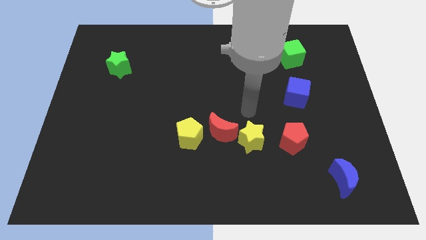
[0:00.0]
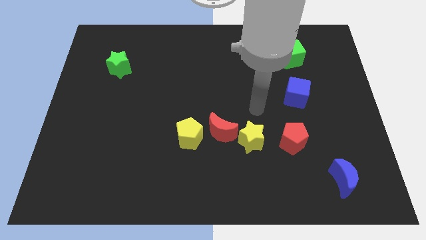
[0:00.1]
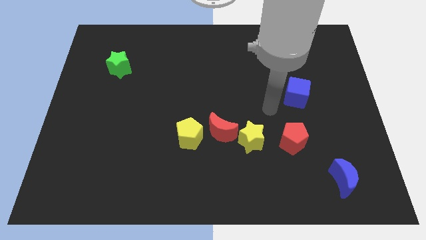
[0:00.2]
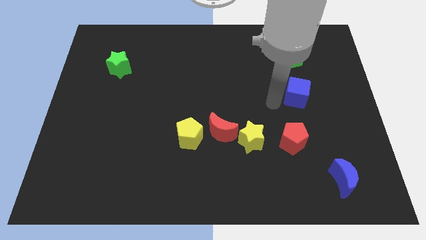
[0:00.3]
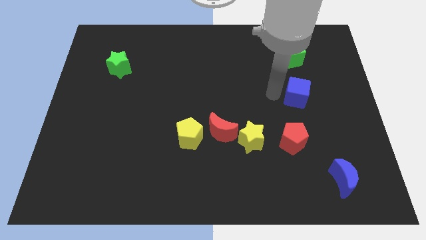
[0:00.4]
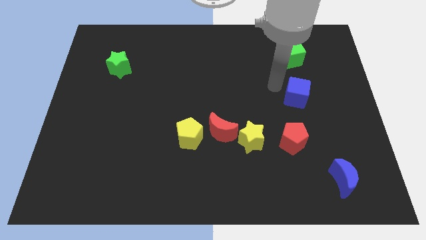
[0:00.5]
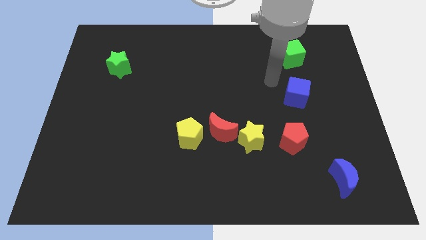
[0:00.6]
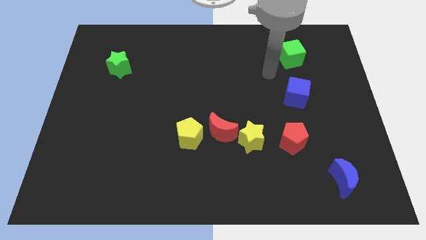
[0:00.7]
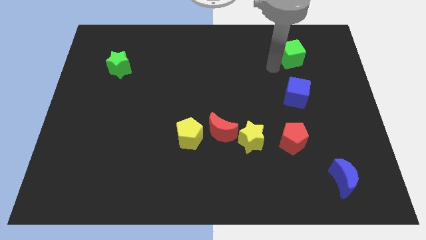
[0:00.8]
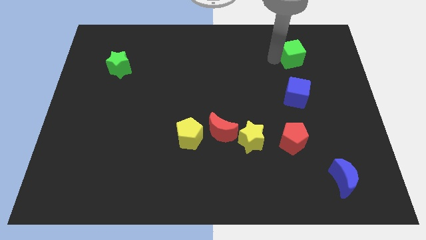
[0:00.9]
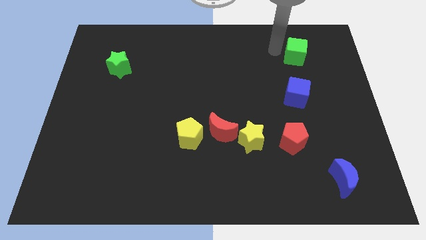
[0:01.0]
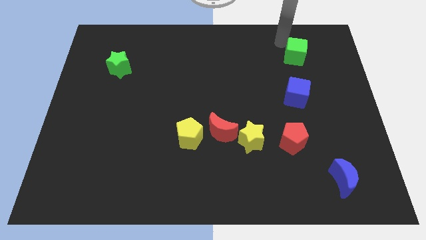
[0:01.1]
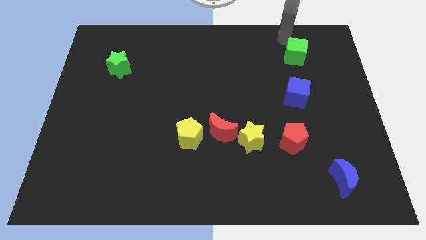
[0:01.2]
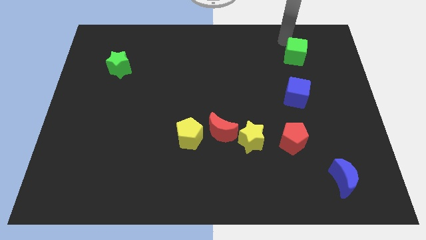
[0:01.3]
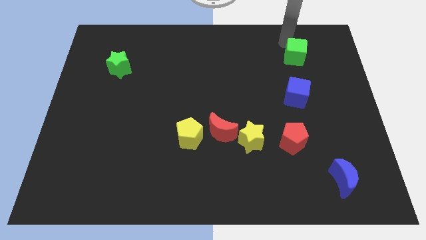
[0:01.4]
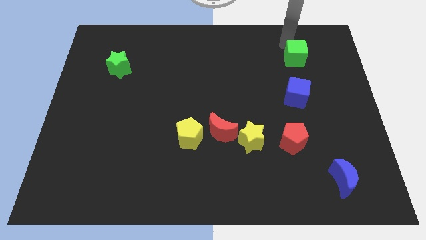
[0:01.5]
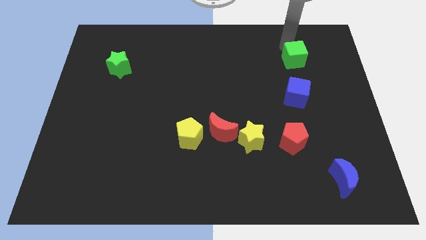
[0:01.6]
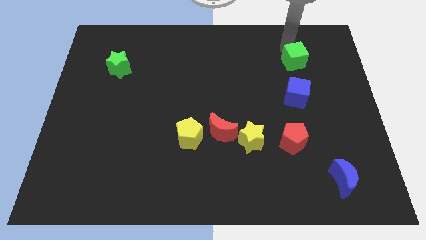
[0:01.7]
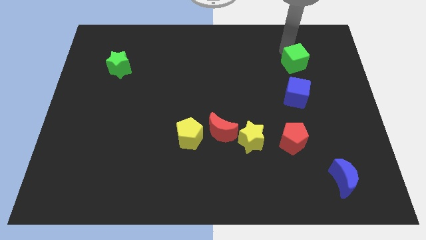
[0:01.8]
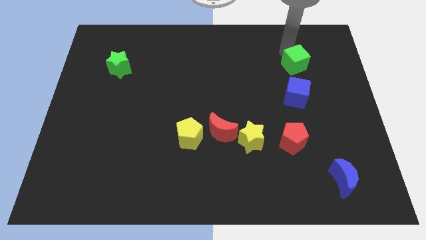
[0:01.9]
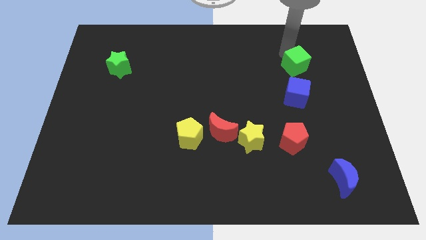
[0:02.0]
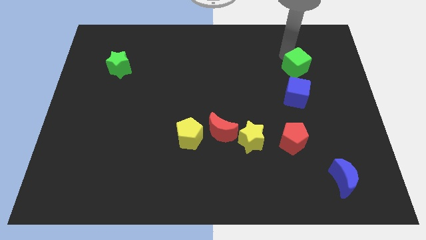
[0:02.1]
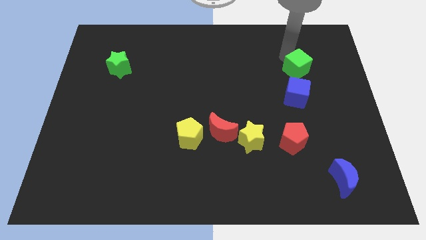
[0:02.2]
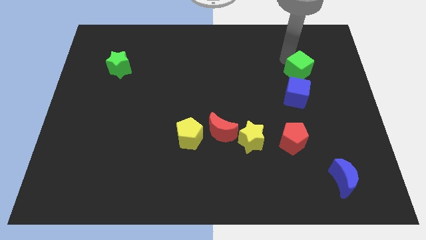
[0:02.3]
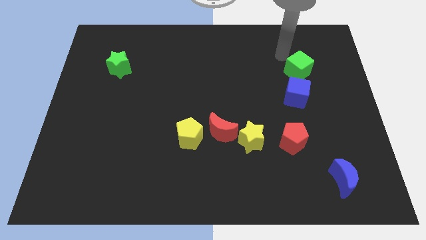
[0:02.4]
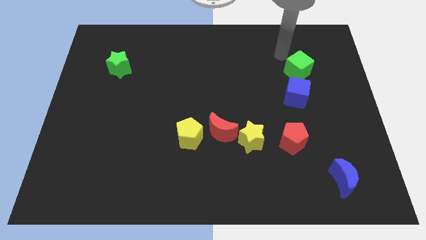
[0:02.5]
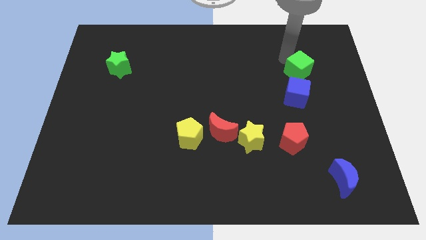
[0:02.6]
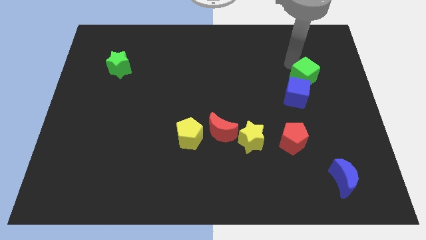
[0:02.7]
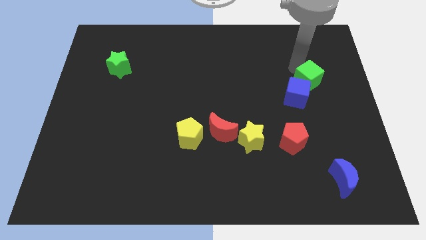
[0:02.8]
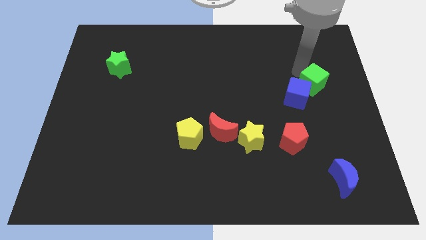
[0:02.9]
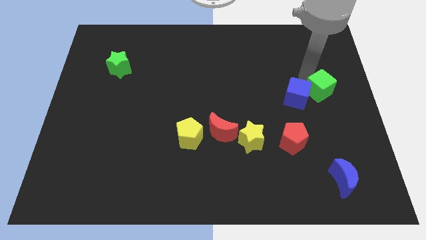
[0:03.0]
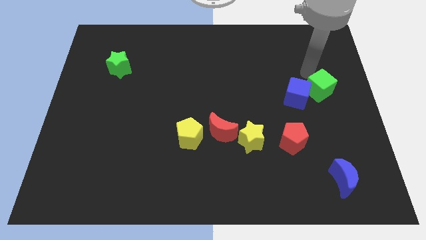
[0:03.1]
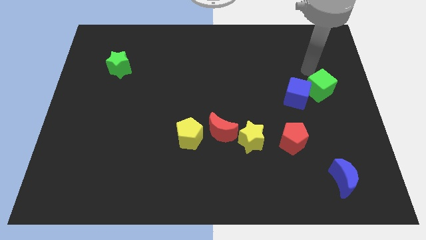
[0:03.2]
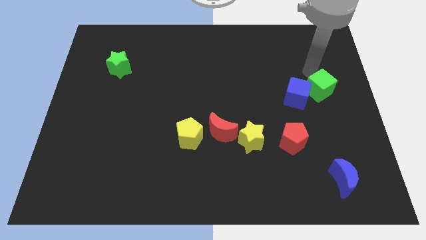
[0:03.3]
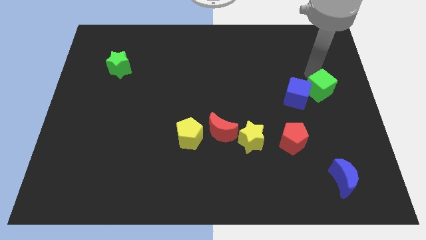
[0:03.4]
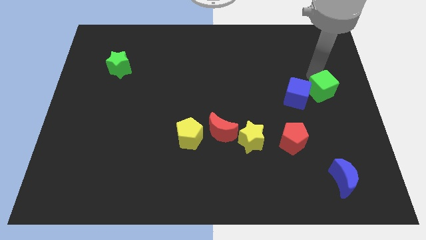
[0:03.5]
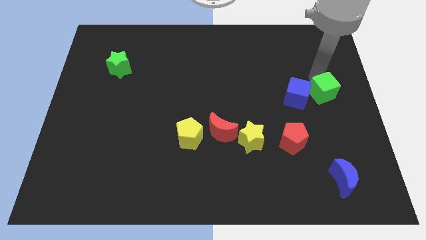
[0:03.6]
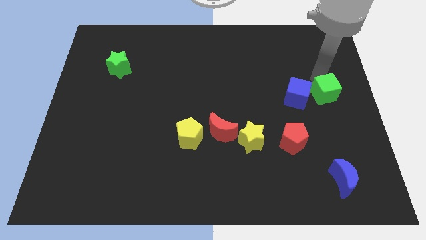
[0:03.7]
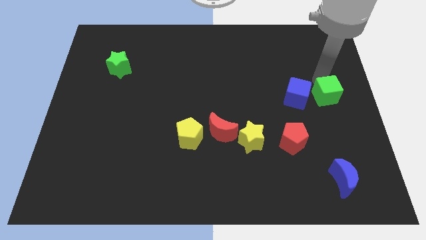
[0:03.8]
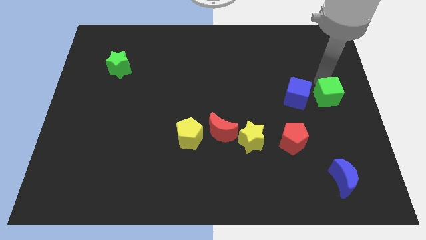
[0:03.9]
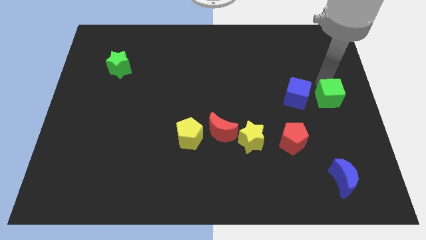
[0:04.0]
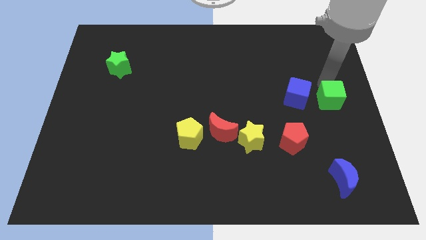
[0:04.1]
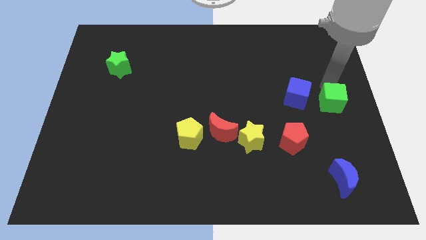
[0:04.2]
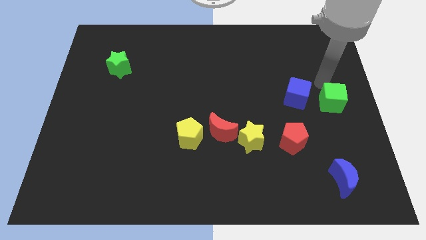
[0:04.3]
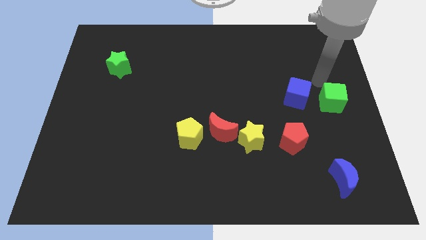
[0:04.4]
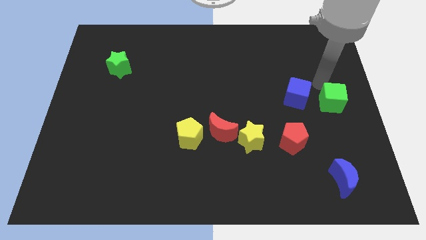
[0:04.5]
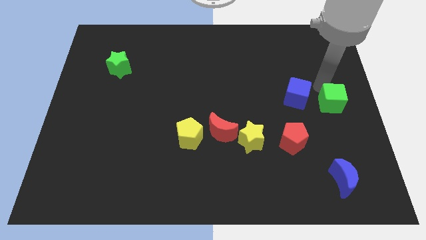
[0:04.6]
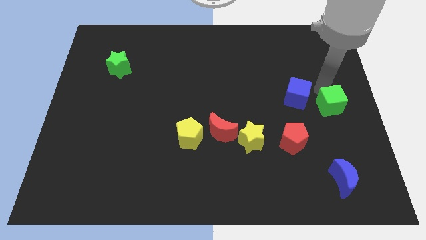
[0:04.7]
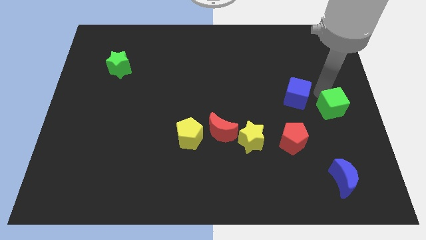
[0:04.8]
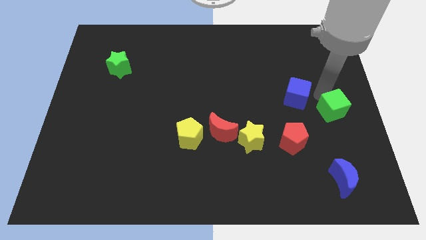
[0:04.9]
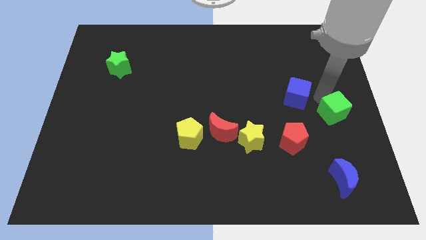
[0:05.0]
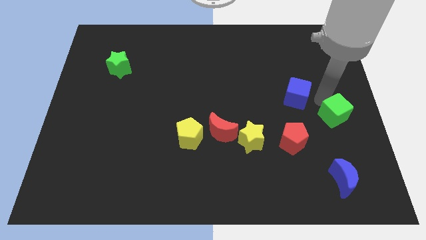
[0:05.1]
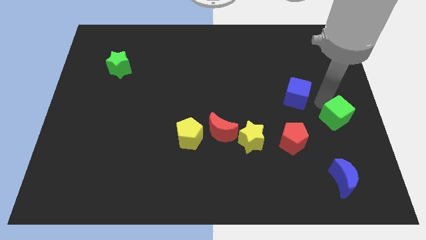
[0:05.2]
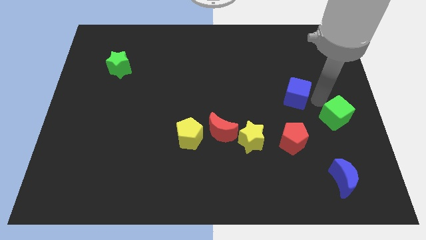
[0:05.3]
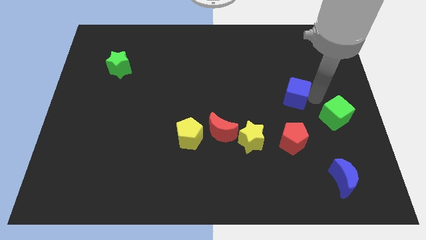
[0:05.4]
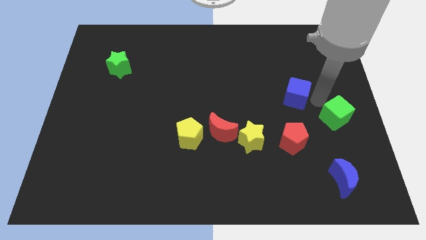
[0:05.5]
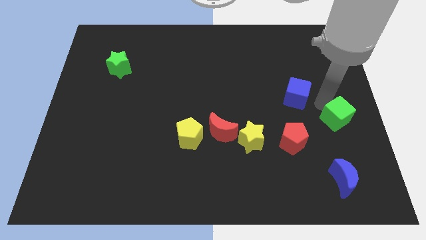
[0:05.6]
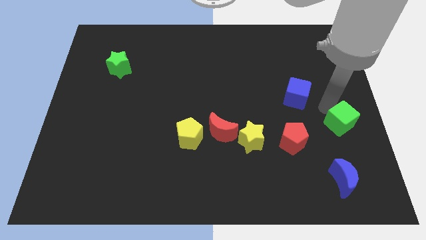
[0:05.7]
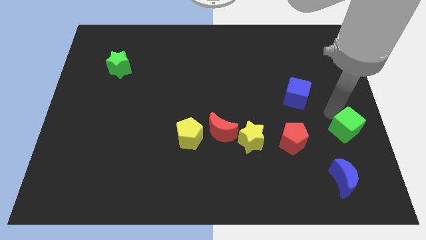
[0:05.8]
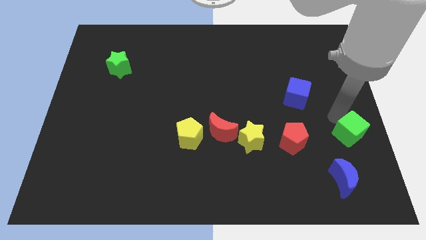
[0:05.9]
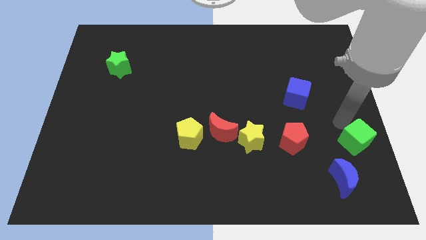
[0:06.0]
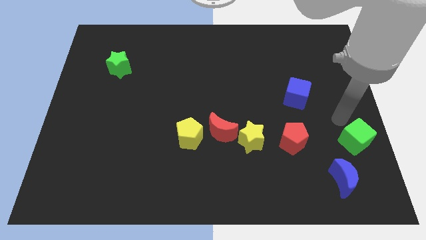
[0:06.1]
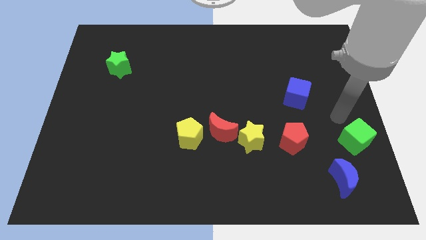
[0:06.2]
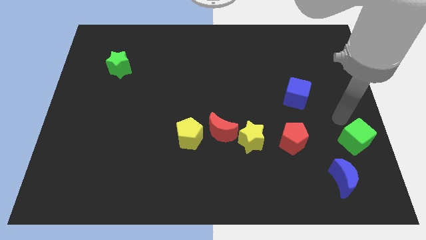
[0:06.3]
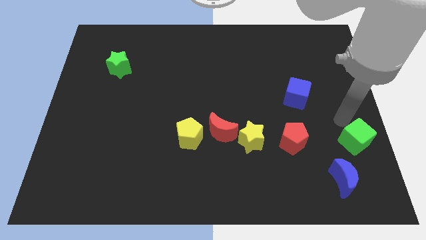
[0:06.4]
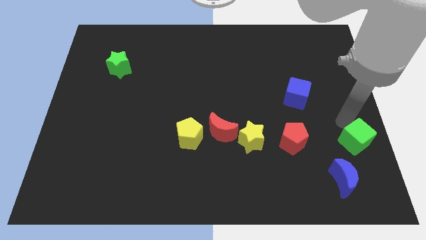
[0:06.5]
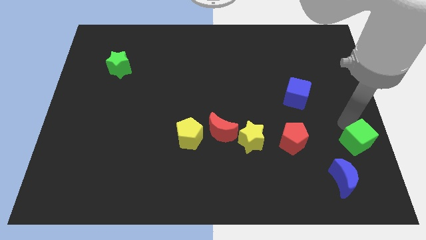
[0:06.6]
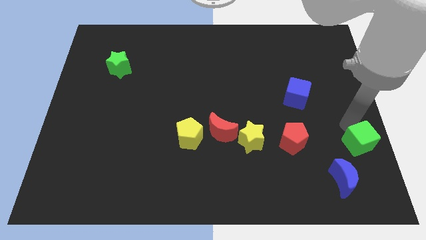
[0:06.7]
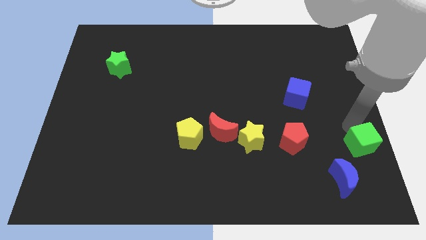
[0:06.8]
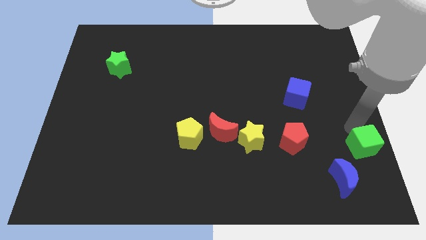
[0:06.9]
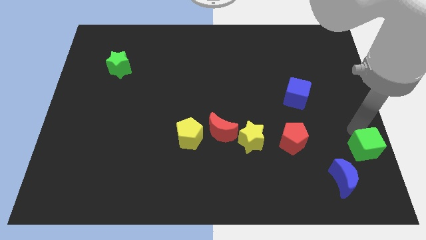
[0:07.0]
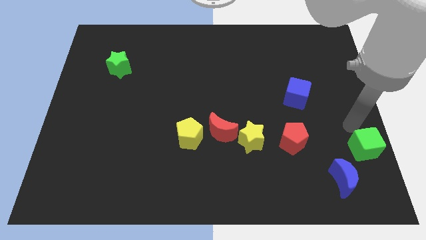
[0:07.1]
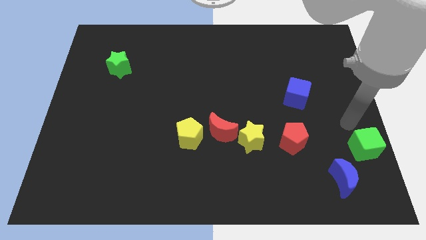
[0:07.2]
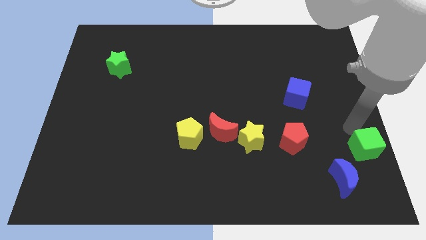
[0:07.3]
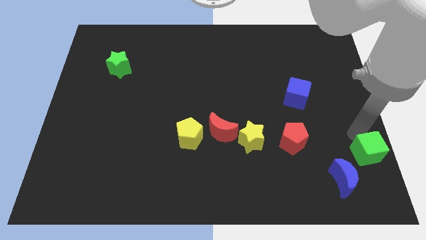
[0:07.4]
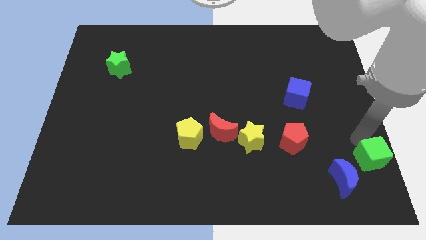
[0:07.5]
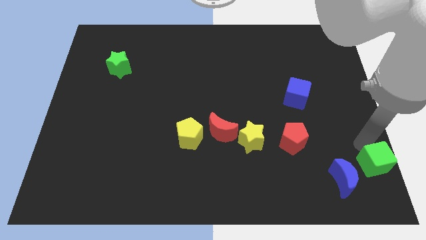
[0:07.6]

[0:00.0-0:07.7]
move the green cube to the bottom right
